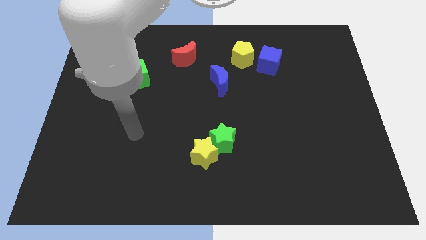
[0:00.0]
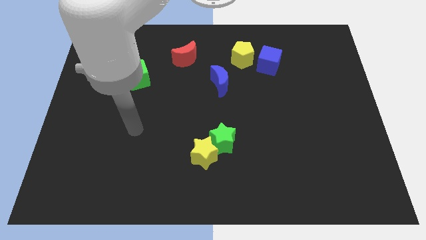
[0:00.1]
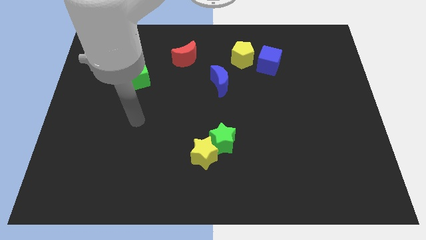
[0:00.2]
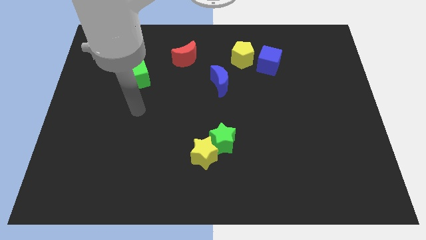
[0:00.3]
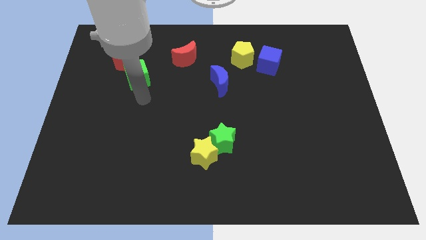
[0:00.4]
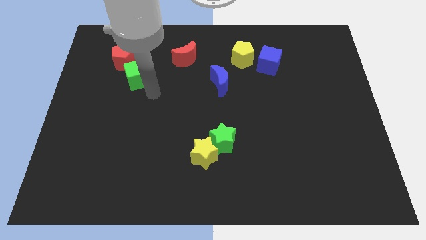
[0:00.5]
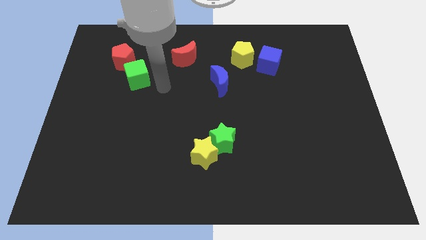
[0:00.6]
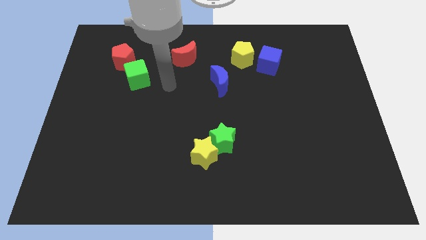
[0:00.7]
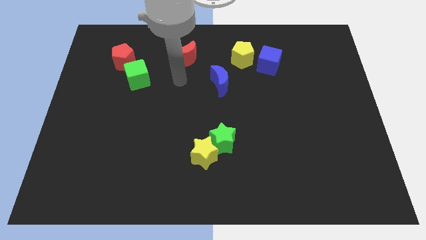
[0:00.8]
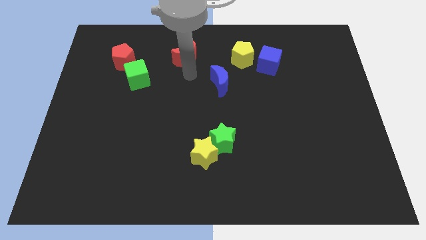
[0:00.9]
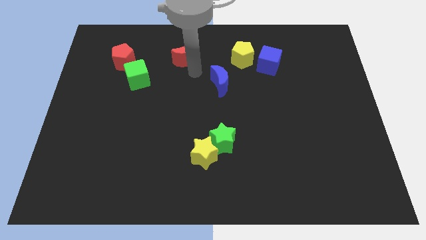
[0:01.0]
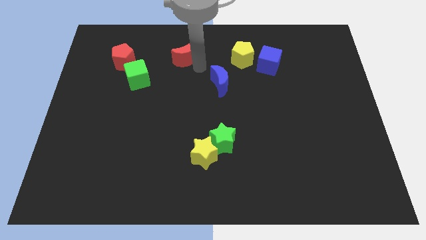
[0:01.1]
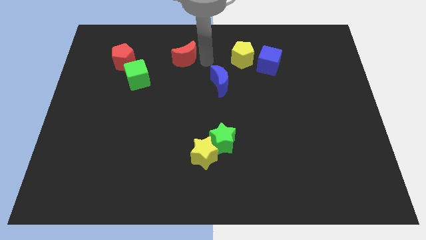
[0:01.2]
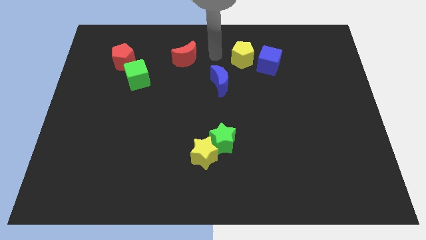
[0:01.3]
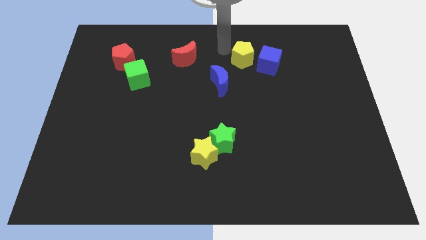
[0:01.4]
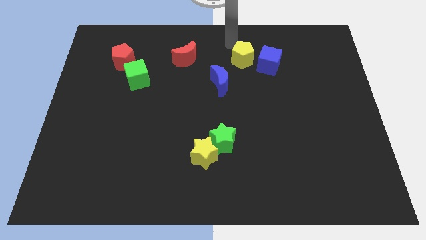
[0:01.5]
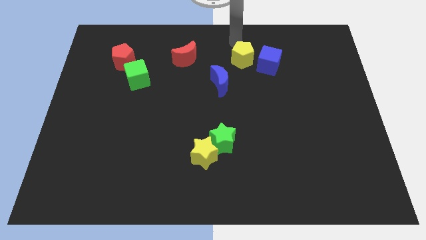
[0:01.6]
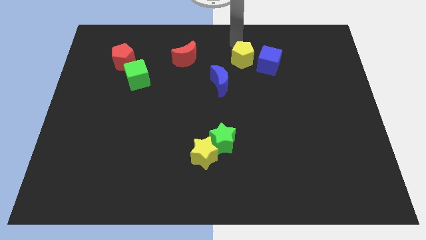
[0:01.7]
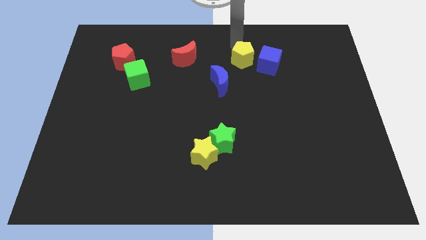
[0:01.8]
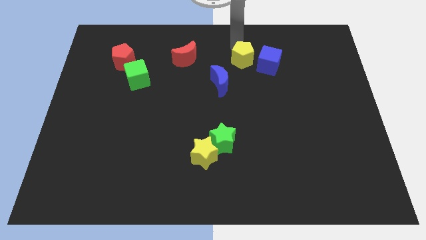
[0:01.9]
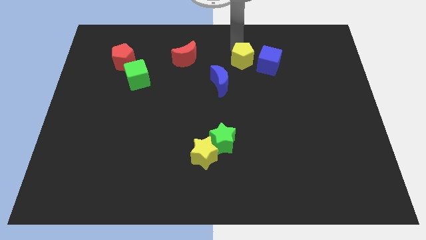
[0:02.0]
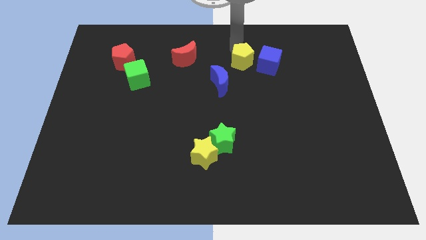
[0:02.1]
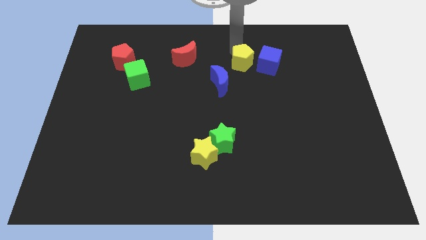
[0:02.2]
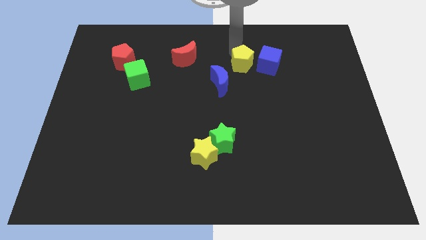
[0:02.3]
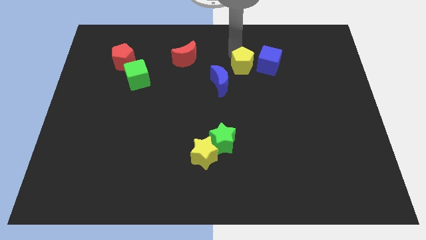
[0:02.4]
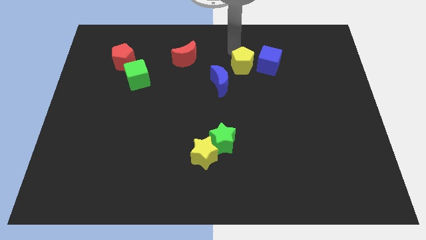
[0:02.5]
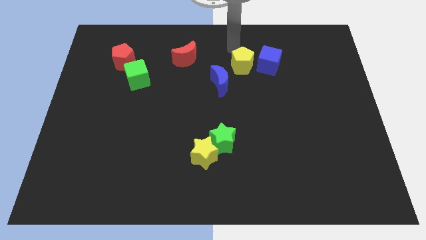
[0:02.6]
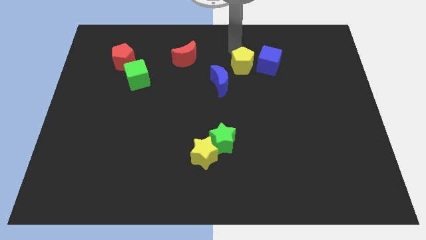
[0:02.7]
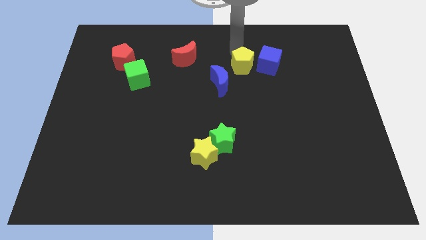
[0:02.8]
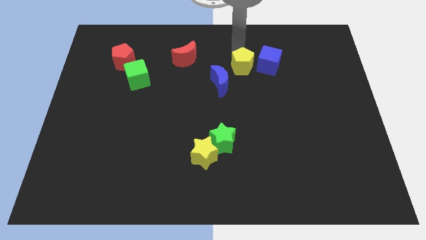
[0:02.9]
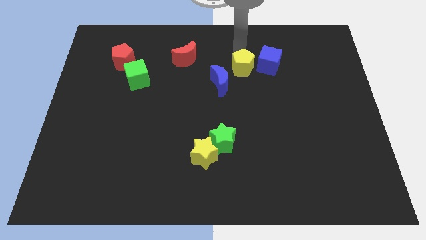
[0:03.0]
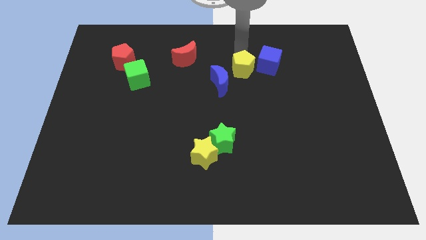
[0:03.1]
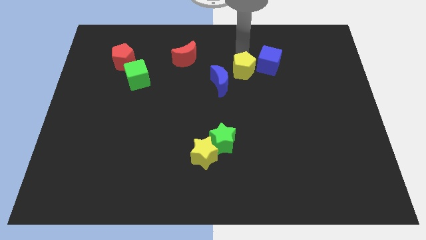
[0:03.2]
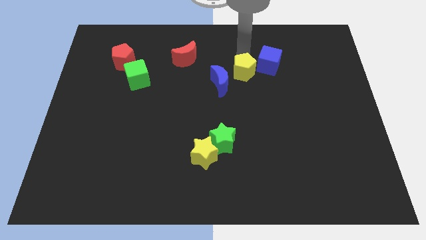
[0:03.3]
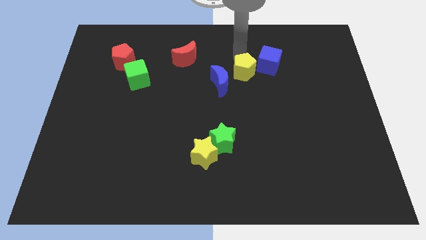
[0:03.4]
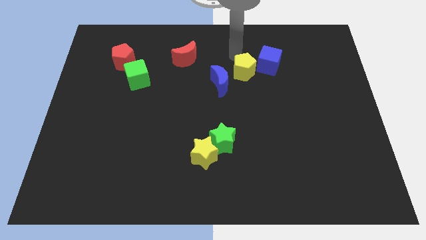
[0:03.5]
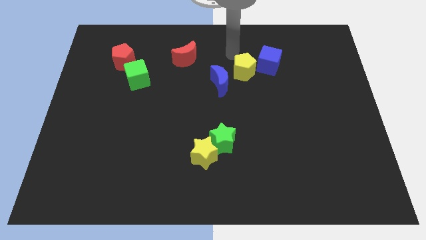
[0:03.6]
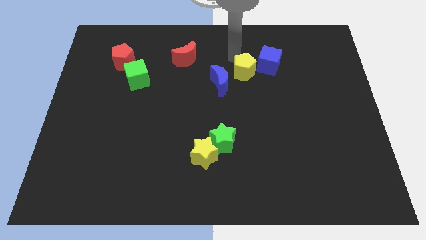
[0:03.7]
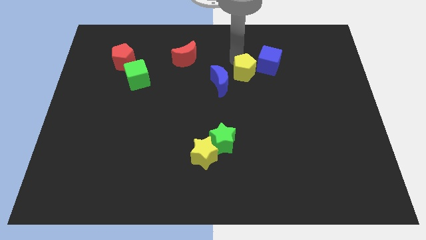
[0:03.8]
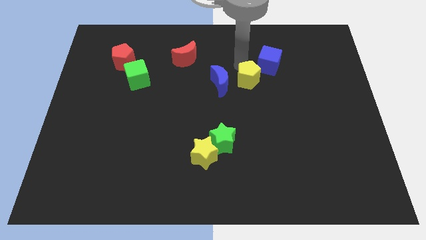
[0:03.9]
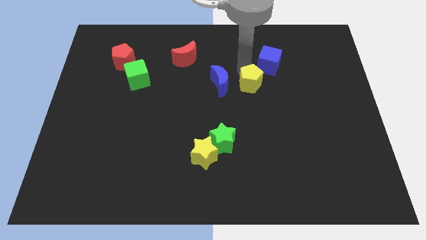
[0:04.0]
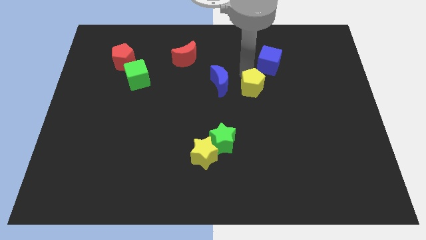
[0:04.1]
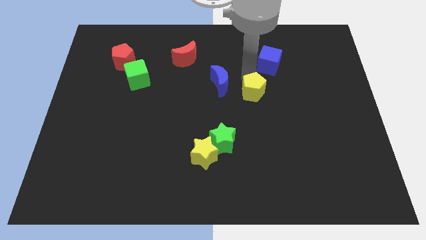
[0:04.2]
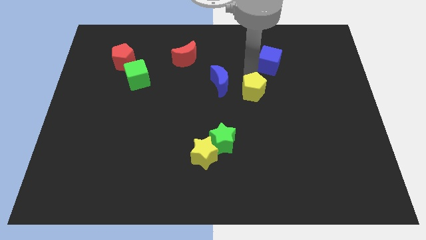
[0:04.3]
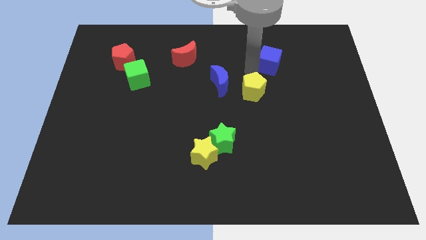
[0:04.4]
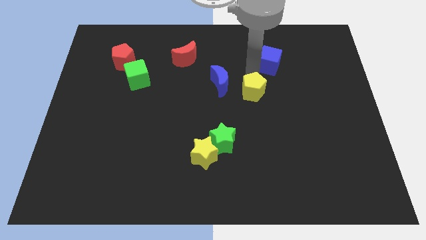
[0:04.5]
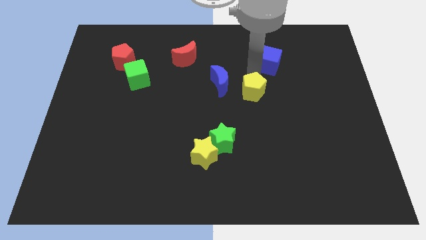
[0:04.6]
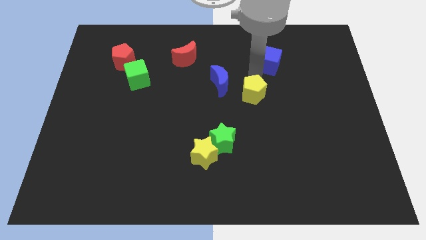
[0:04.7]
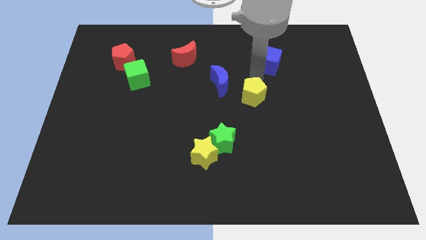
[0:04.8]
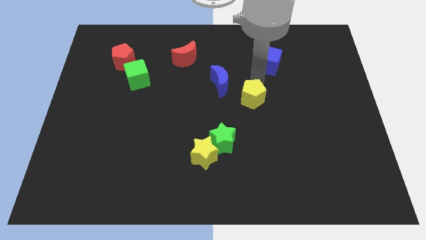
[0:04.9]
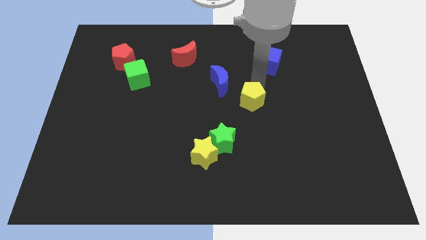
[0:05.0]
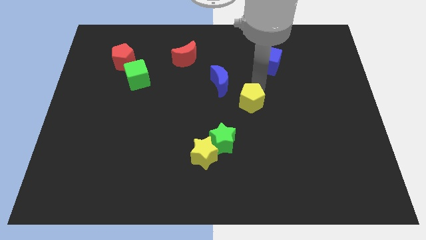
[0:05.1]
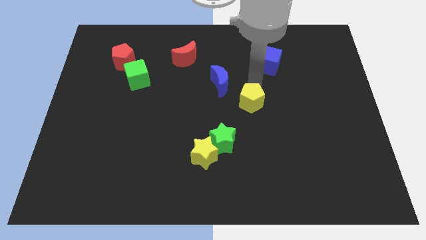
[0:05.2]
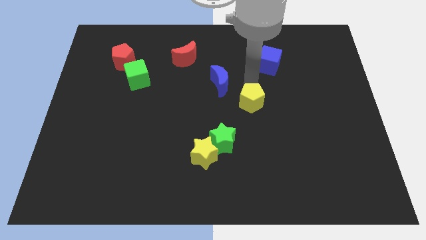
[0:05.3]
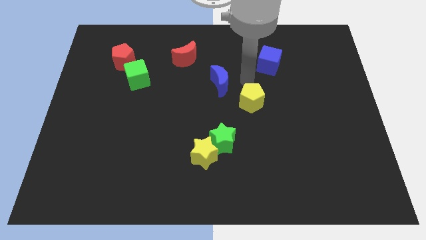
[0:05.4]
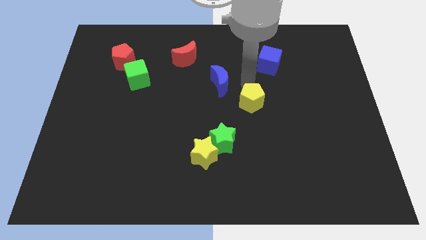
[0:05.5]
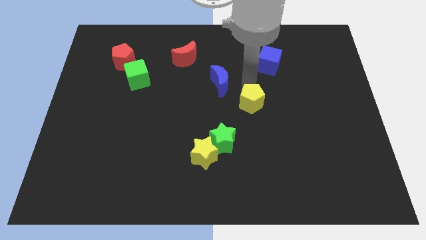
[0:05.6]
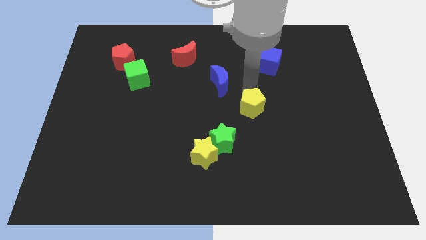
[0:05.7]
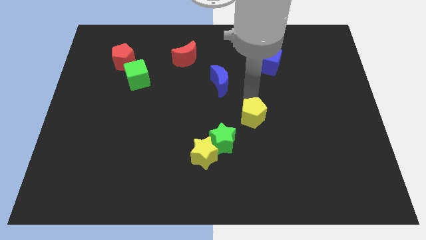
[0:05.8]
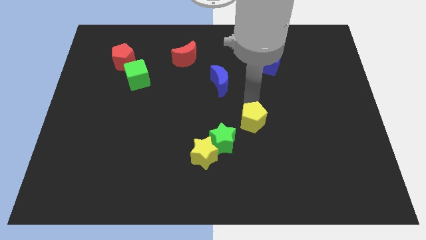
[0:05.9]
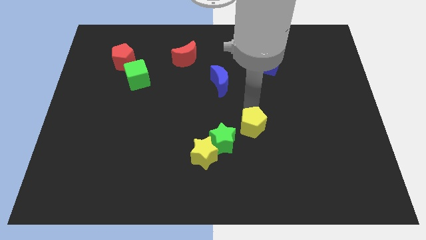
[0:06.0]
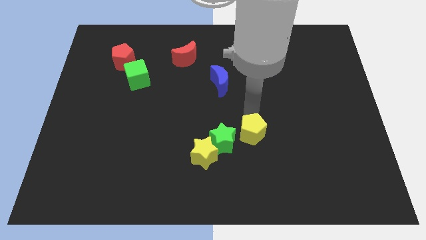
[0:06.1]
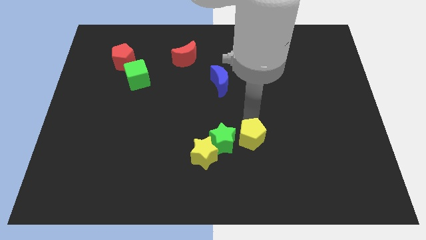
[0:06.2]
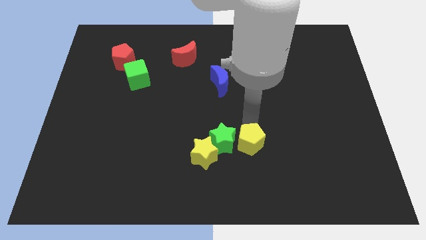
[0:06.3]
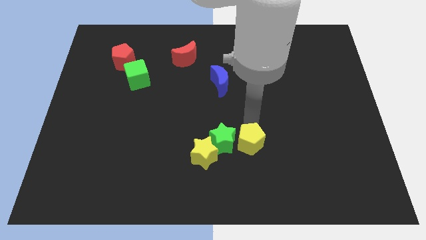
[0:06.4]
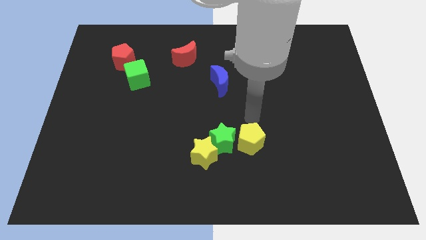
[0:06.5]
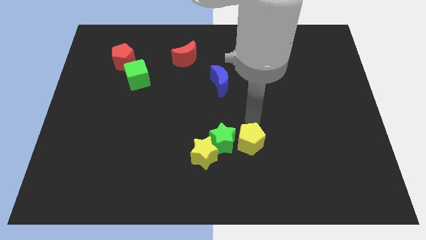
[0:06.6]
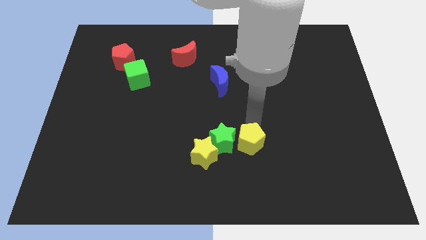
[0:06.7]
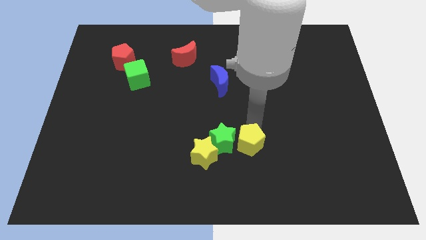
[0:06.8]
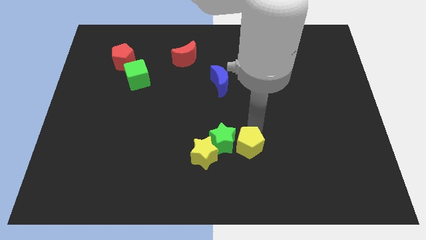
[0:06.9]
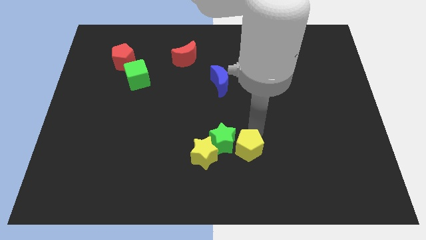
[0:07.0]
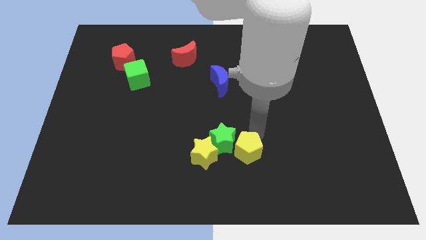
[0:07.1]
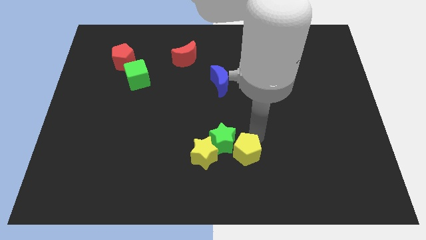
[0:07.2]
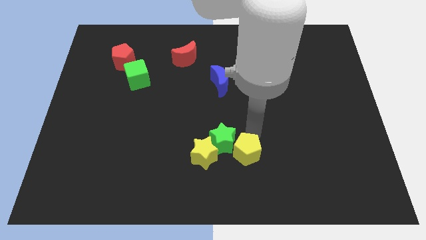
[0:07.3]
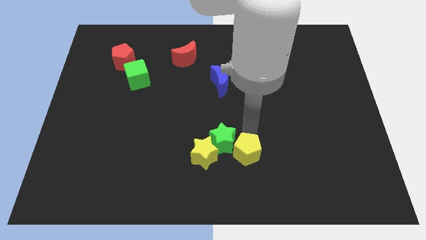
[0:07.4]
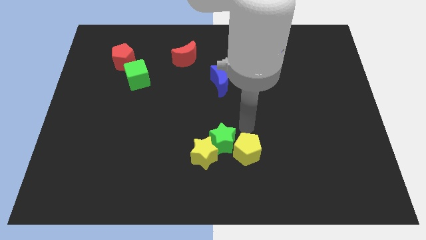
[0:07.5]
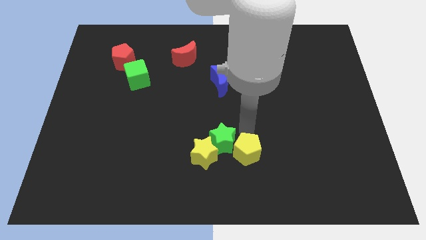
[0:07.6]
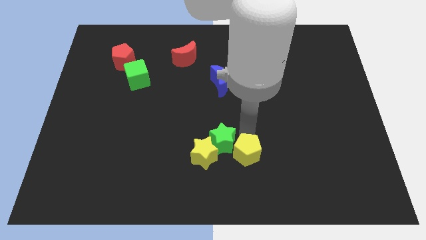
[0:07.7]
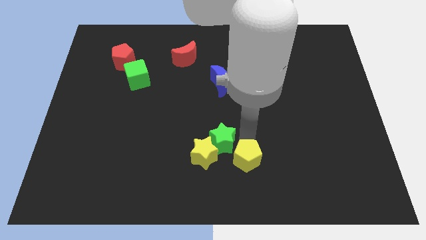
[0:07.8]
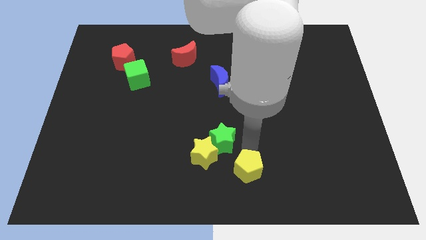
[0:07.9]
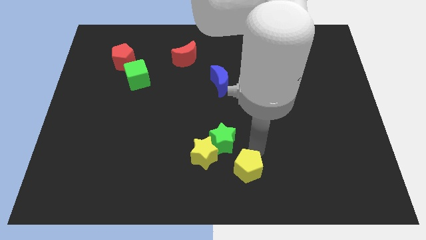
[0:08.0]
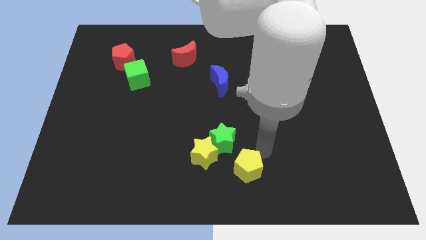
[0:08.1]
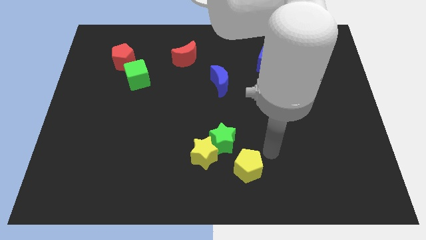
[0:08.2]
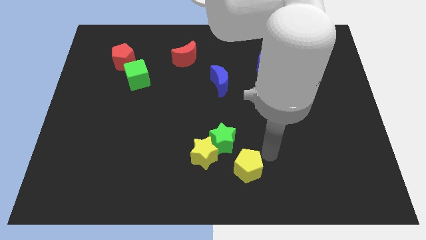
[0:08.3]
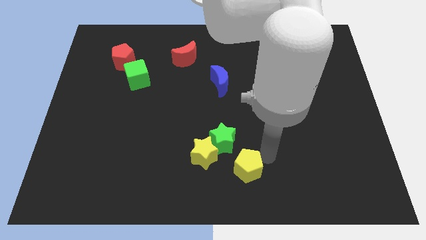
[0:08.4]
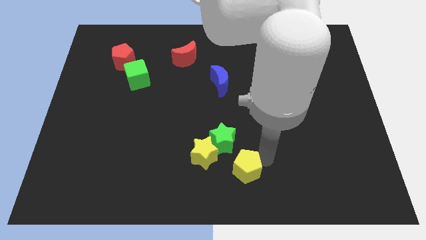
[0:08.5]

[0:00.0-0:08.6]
push the yellow pentagon to the bottom side of the green star
